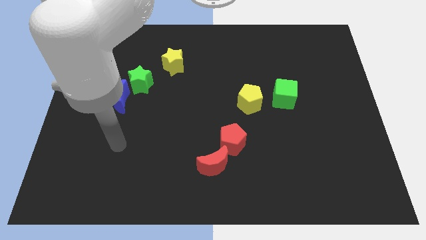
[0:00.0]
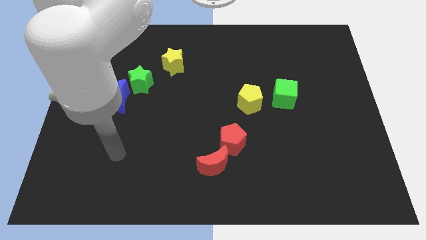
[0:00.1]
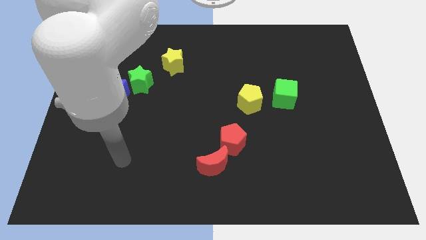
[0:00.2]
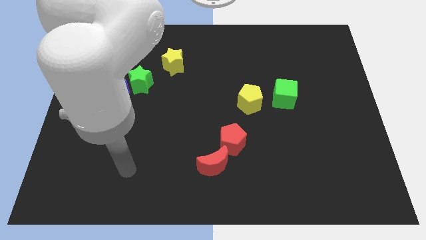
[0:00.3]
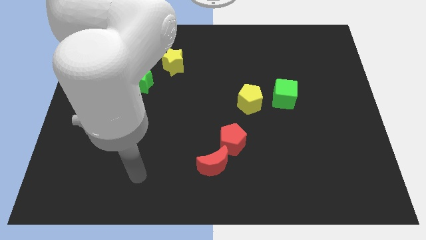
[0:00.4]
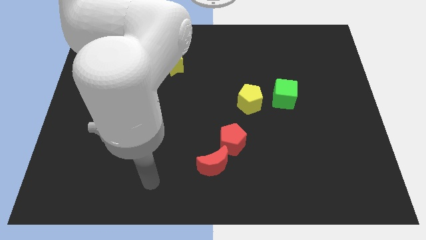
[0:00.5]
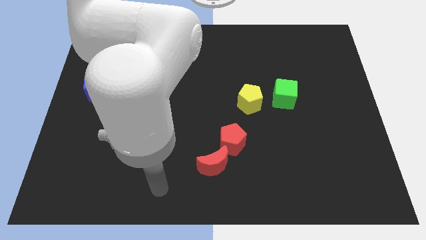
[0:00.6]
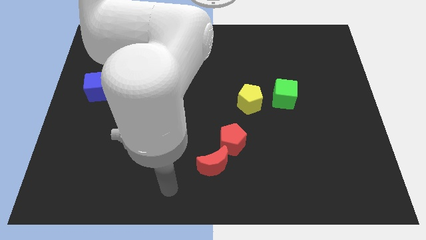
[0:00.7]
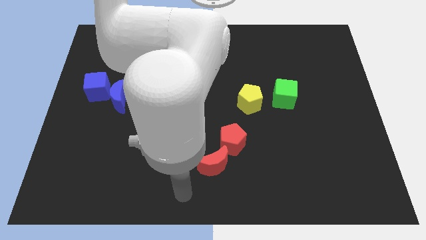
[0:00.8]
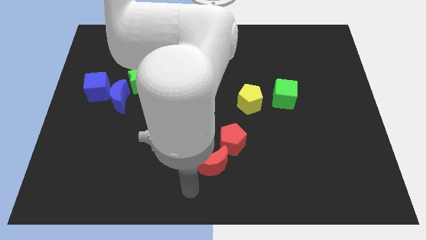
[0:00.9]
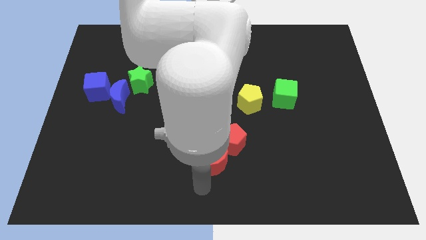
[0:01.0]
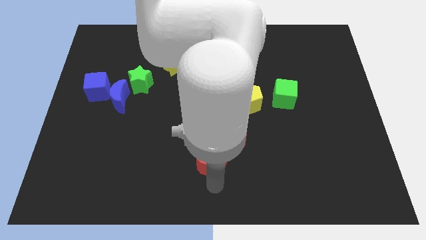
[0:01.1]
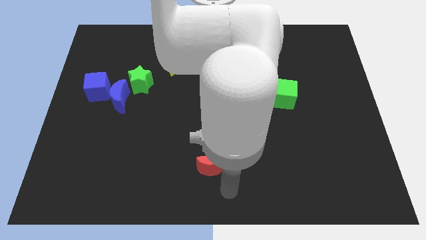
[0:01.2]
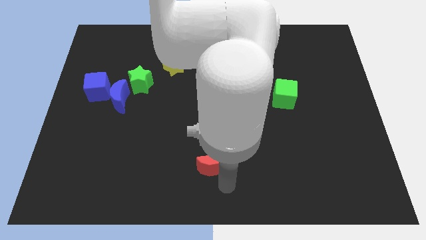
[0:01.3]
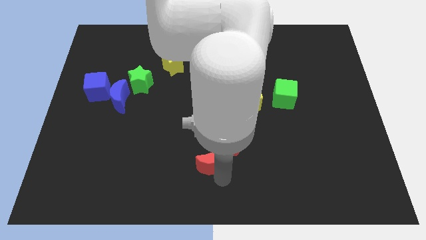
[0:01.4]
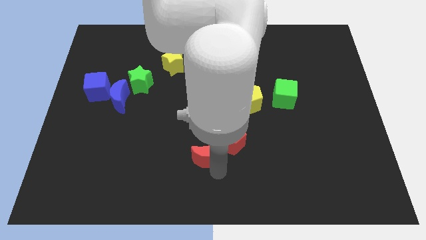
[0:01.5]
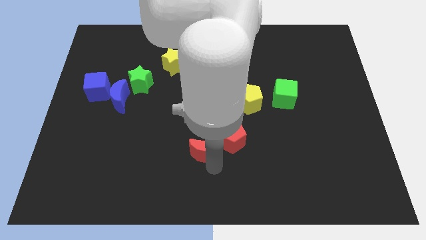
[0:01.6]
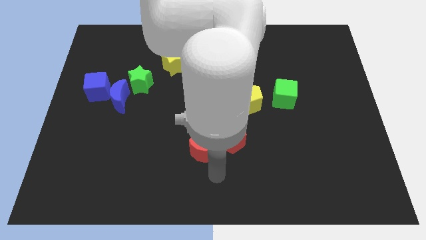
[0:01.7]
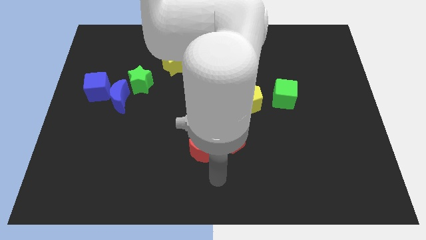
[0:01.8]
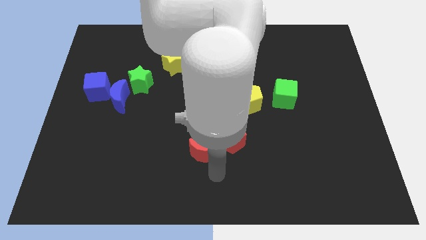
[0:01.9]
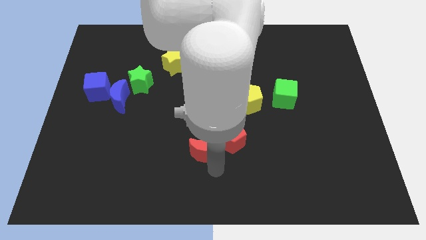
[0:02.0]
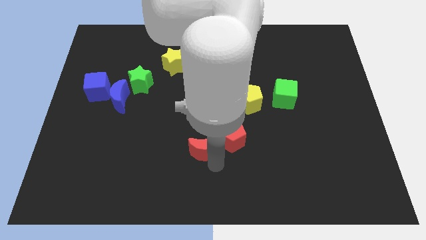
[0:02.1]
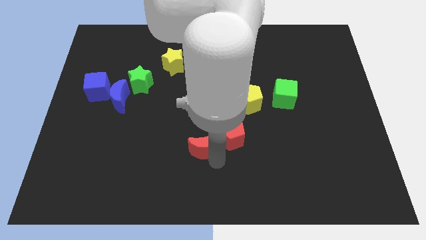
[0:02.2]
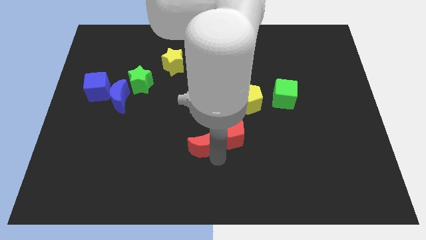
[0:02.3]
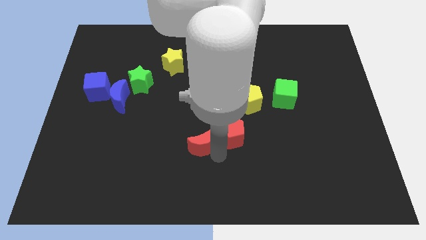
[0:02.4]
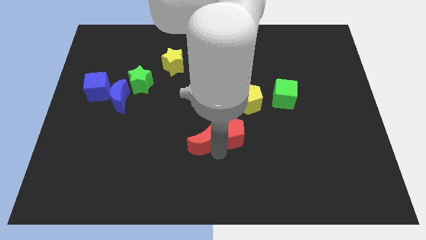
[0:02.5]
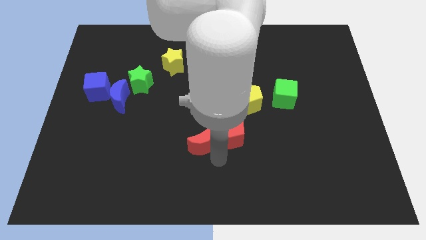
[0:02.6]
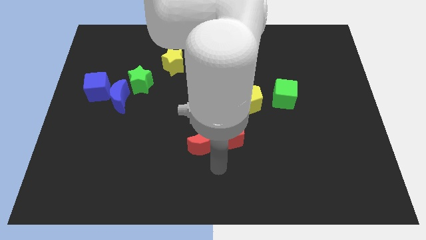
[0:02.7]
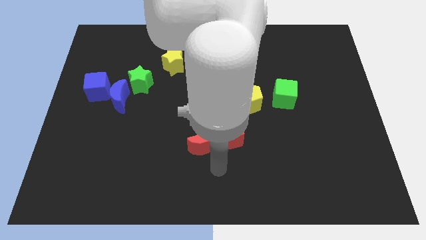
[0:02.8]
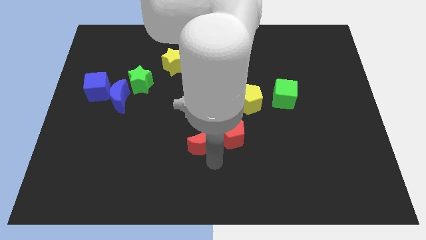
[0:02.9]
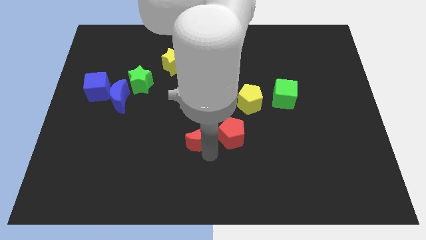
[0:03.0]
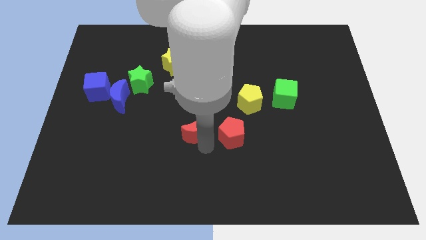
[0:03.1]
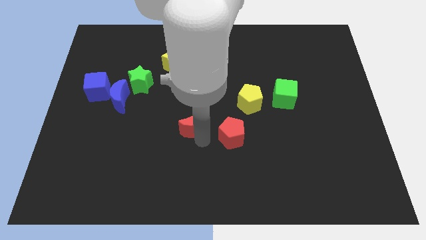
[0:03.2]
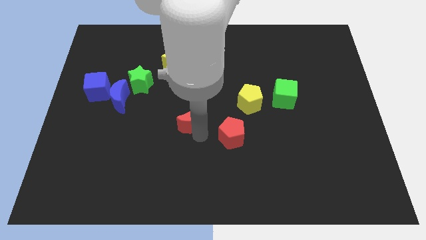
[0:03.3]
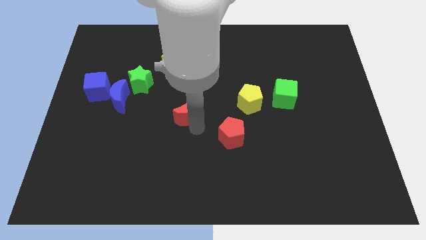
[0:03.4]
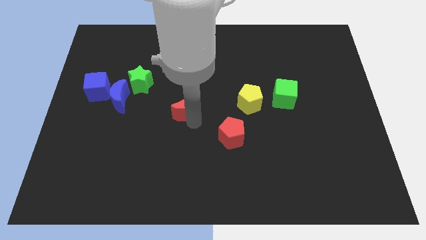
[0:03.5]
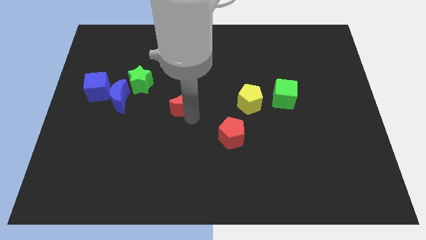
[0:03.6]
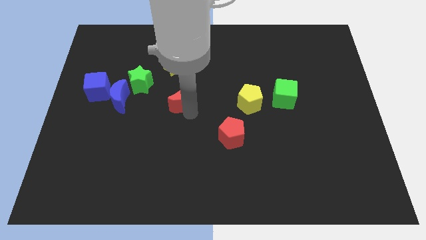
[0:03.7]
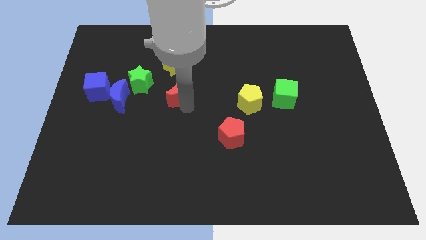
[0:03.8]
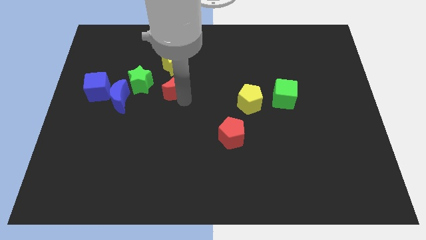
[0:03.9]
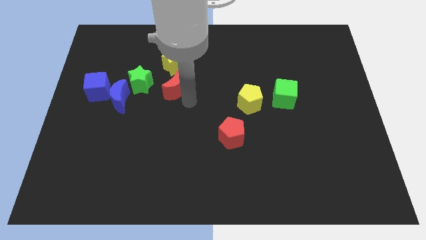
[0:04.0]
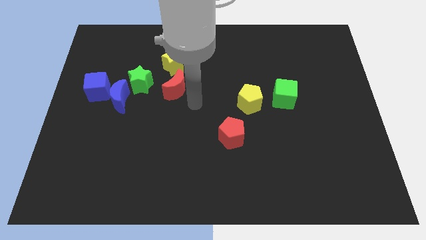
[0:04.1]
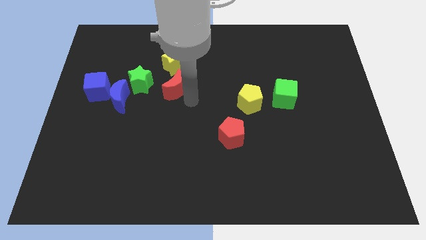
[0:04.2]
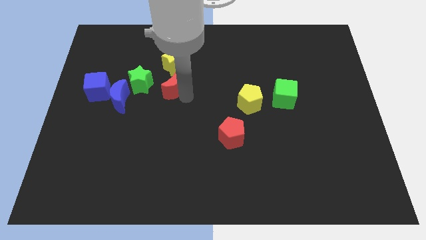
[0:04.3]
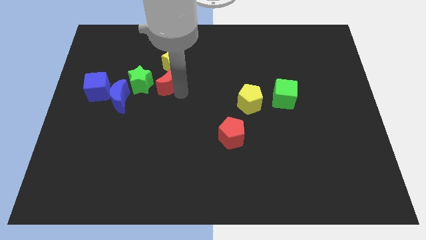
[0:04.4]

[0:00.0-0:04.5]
move the red moon diagonally up and left

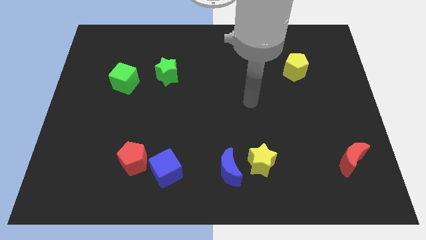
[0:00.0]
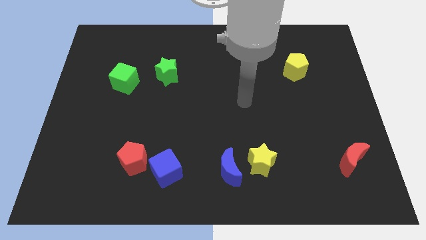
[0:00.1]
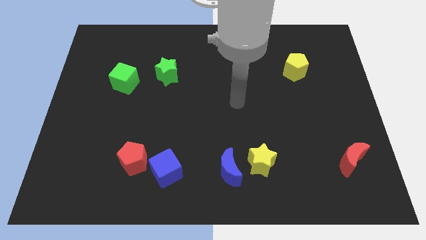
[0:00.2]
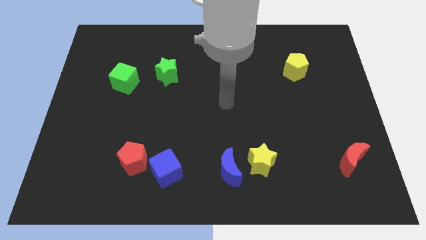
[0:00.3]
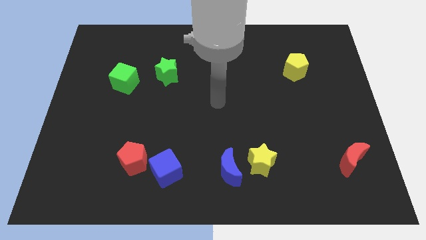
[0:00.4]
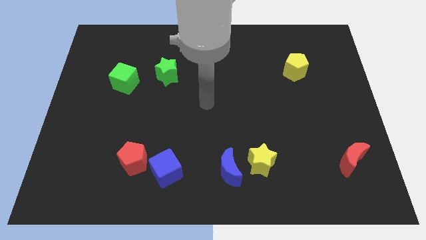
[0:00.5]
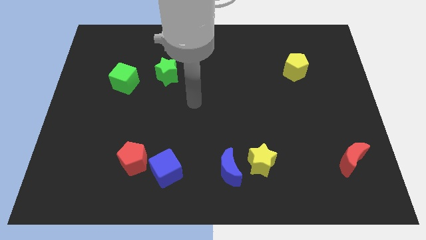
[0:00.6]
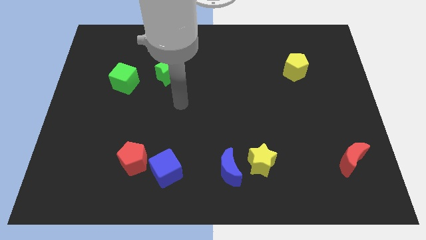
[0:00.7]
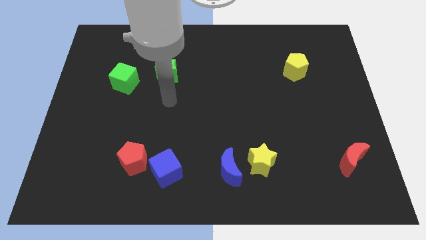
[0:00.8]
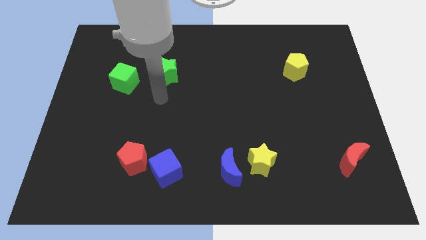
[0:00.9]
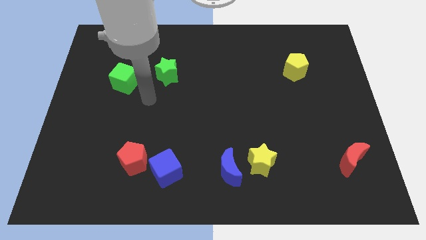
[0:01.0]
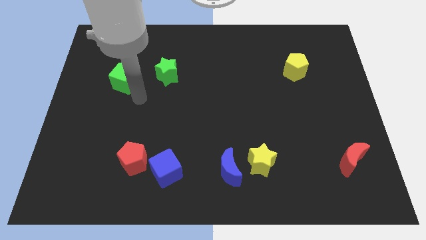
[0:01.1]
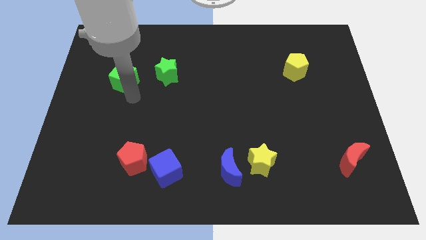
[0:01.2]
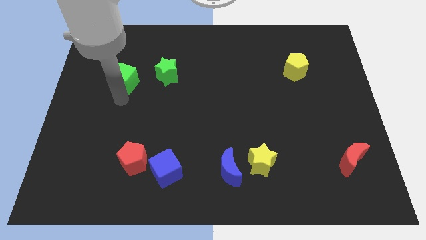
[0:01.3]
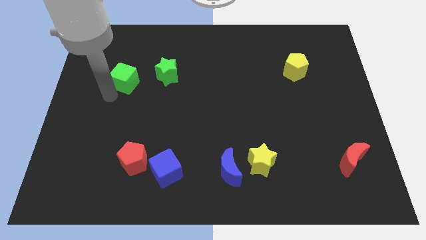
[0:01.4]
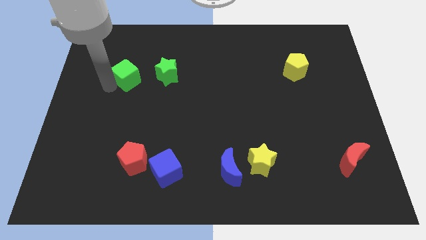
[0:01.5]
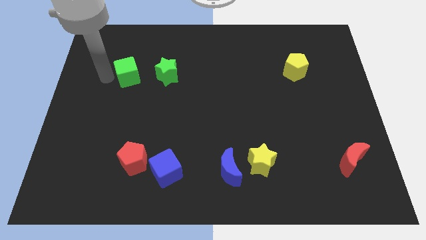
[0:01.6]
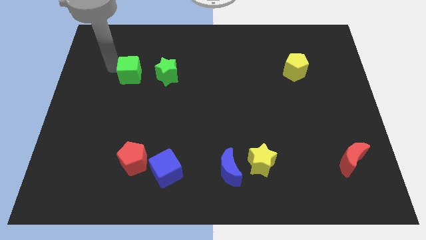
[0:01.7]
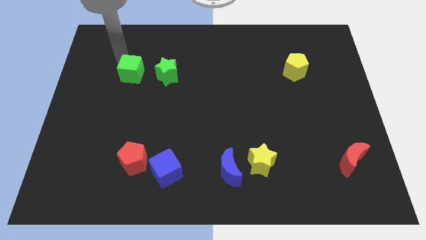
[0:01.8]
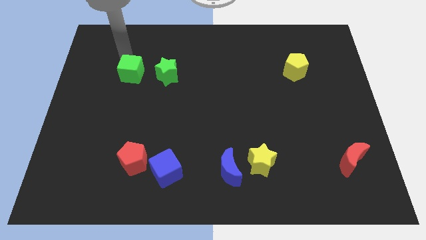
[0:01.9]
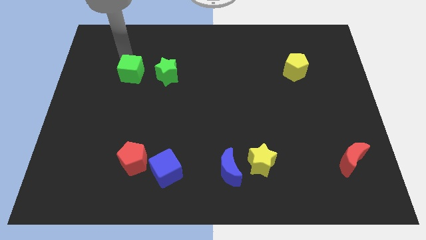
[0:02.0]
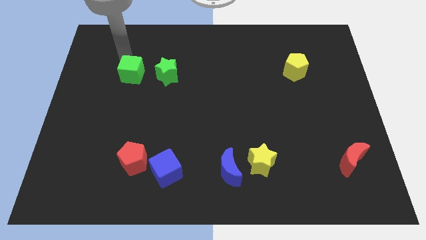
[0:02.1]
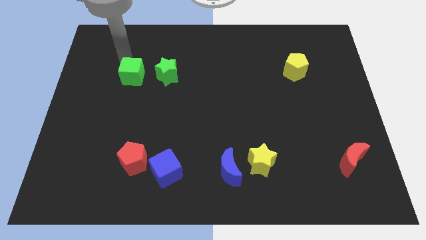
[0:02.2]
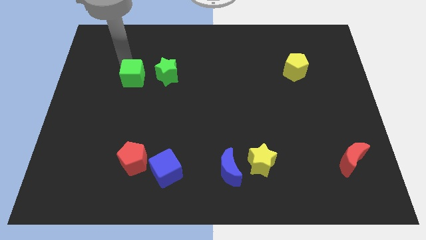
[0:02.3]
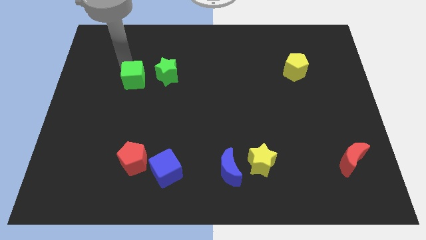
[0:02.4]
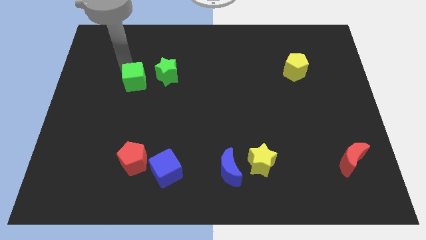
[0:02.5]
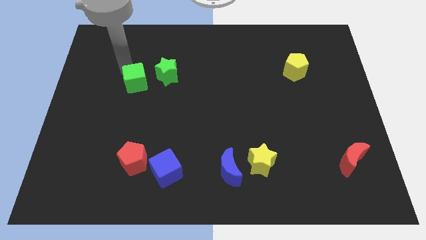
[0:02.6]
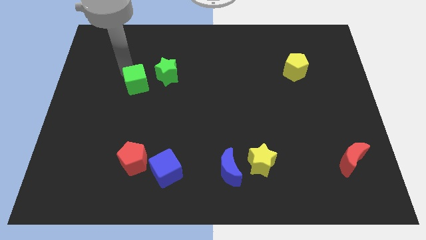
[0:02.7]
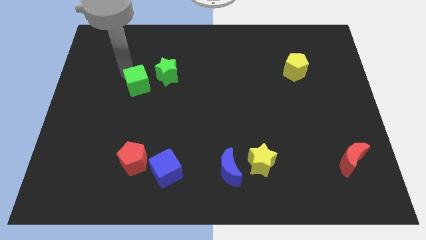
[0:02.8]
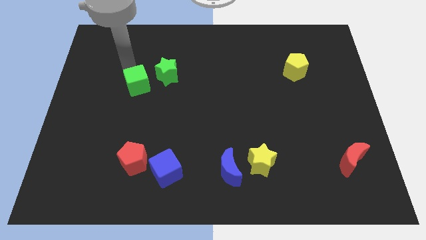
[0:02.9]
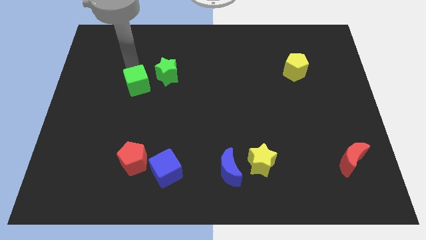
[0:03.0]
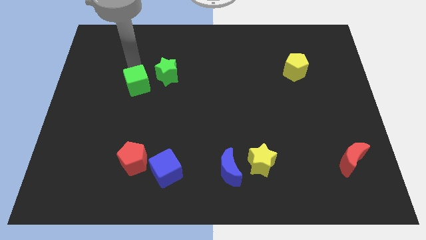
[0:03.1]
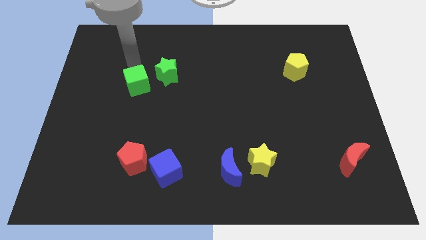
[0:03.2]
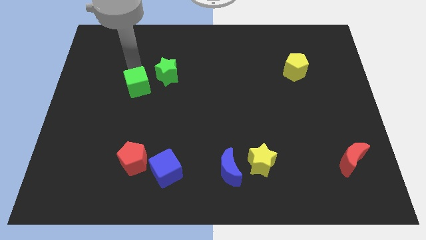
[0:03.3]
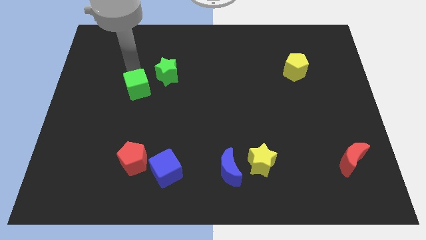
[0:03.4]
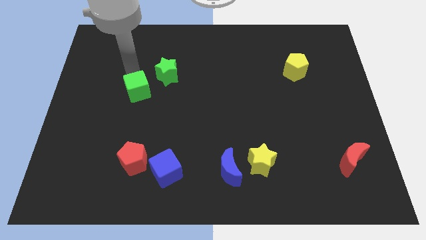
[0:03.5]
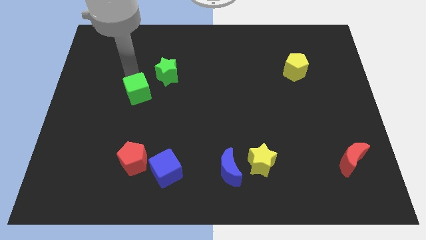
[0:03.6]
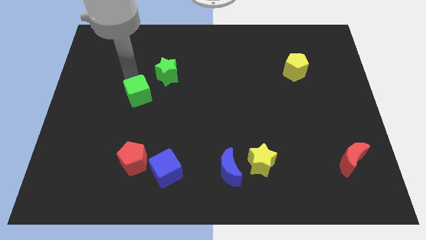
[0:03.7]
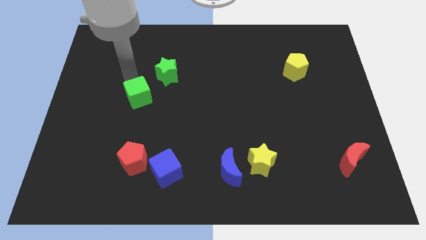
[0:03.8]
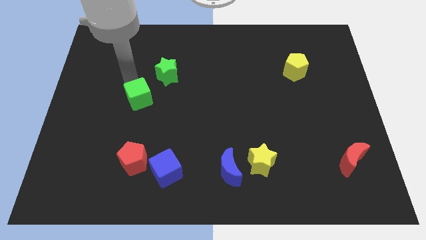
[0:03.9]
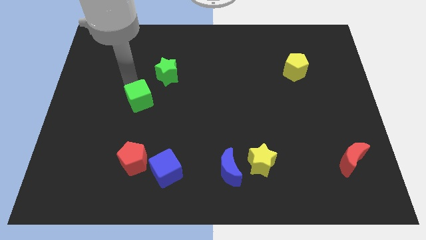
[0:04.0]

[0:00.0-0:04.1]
slightly push the green cube downwards and to the right diagonally
